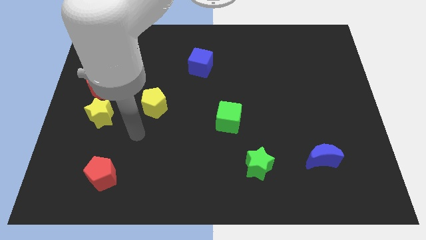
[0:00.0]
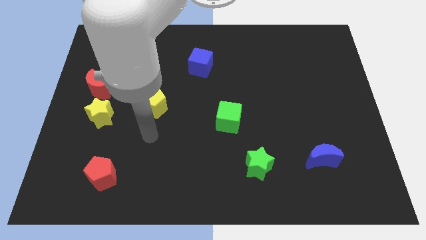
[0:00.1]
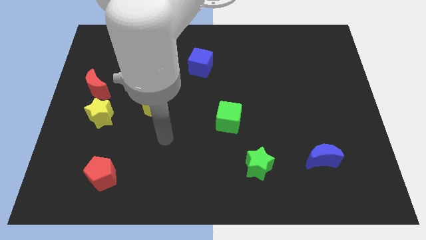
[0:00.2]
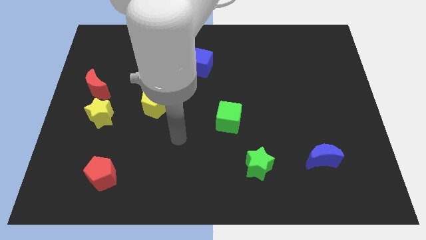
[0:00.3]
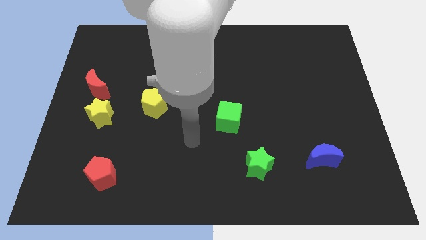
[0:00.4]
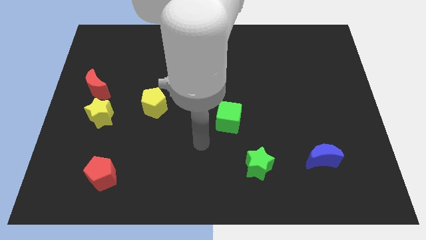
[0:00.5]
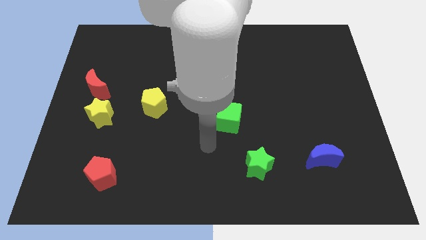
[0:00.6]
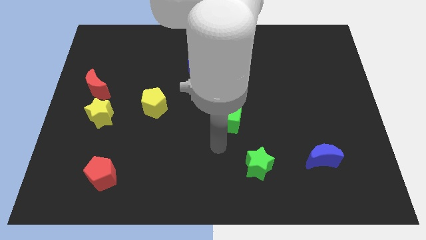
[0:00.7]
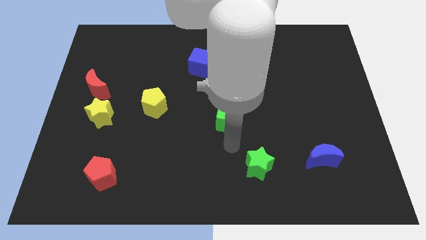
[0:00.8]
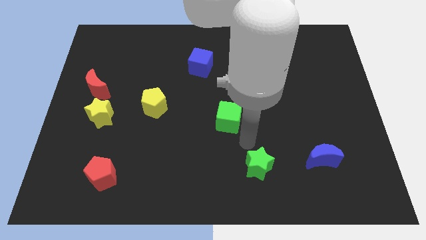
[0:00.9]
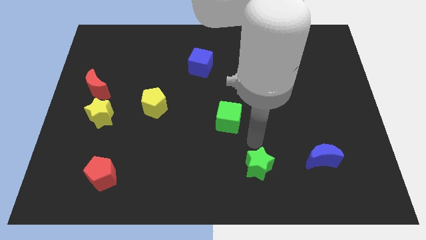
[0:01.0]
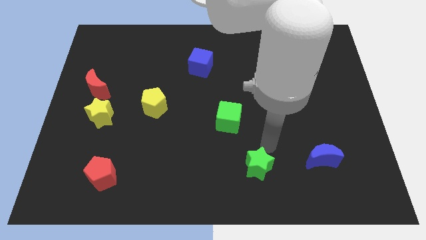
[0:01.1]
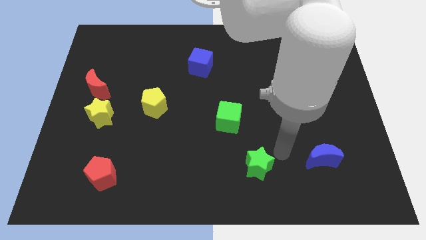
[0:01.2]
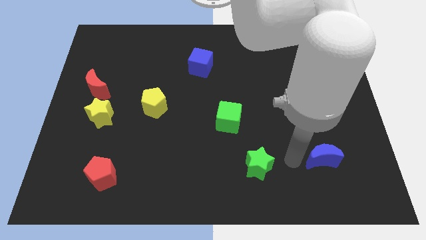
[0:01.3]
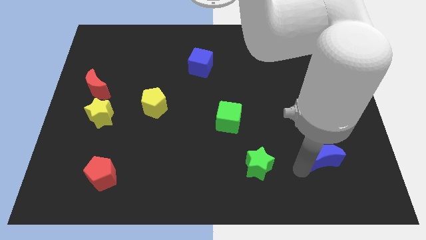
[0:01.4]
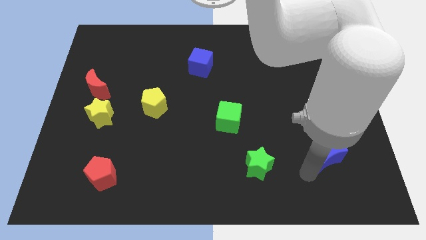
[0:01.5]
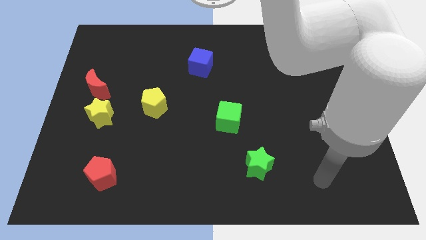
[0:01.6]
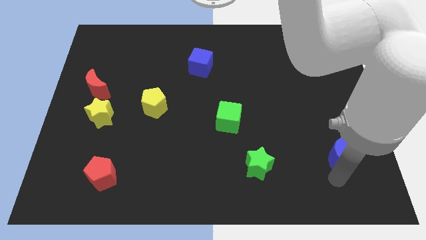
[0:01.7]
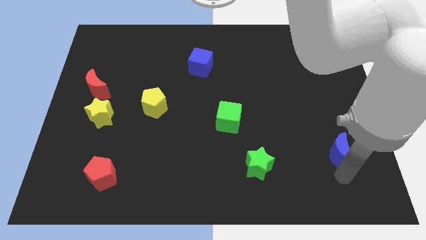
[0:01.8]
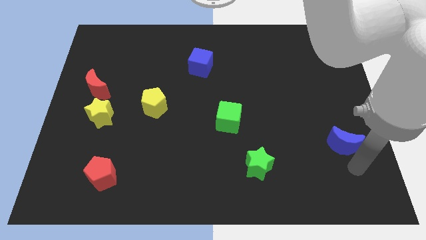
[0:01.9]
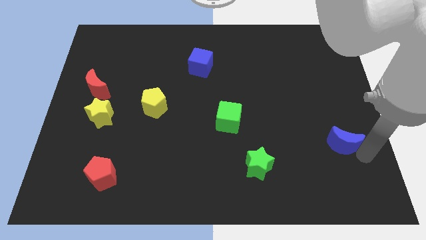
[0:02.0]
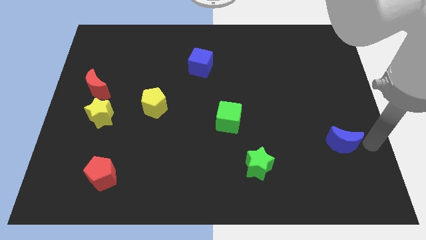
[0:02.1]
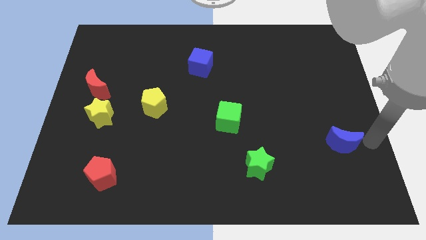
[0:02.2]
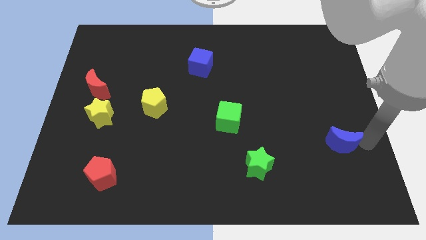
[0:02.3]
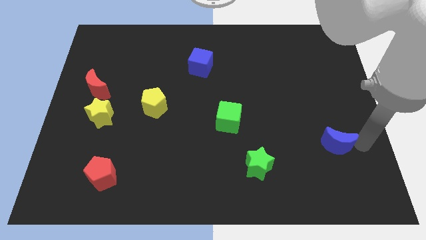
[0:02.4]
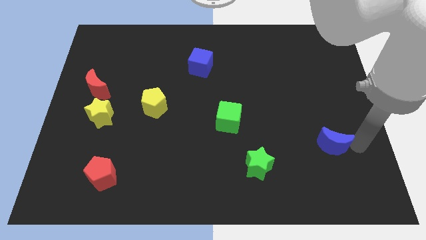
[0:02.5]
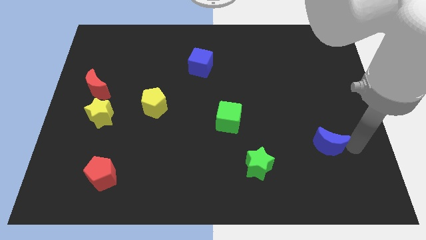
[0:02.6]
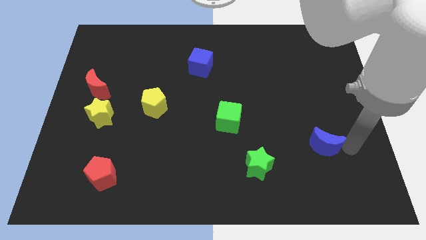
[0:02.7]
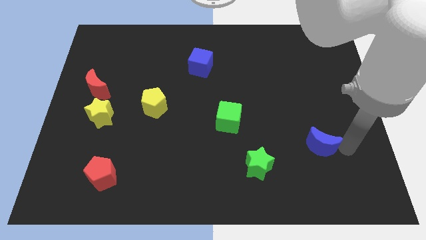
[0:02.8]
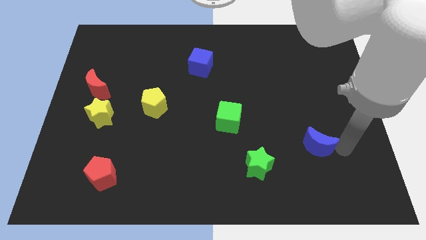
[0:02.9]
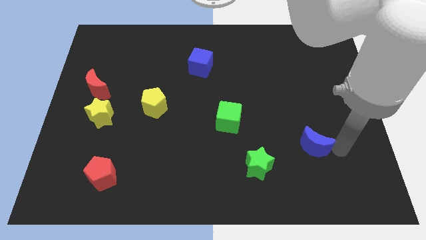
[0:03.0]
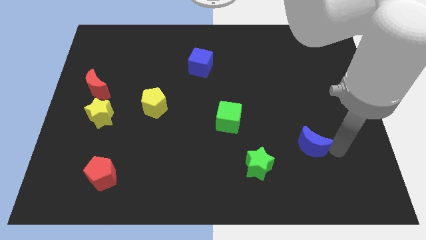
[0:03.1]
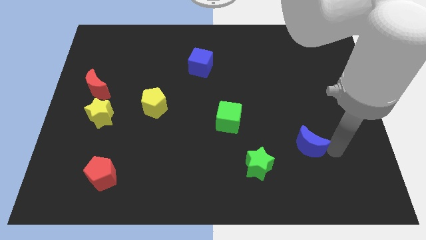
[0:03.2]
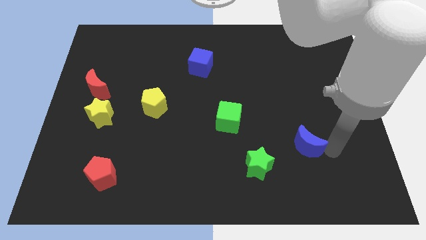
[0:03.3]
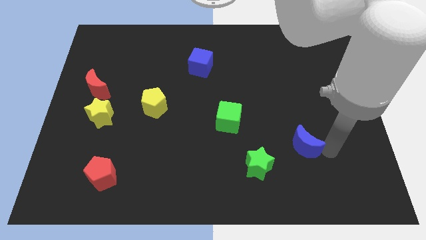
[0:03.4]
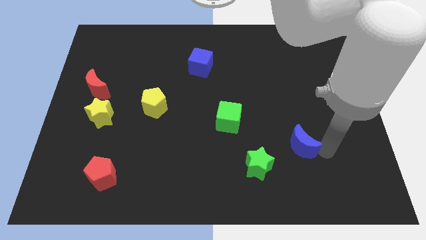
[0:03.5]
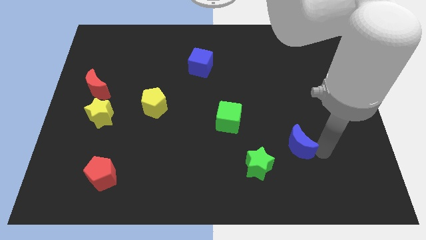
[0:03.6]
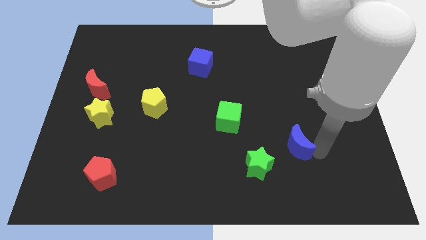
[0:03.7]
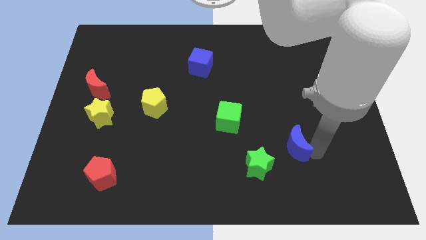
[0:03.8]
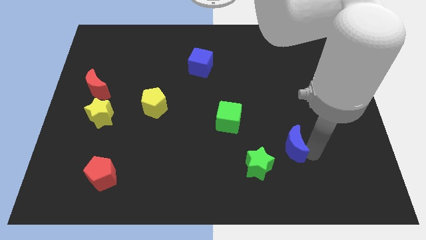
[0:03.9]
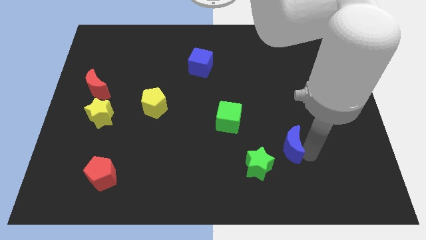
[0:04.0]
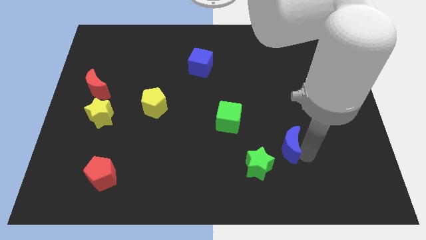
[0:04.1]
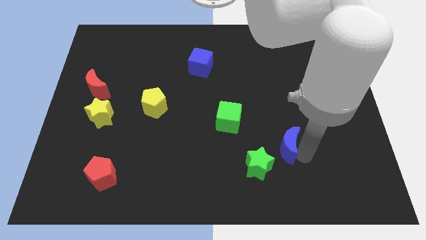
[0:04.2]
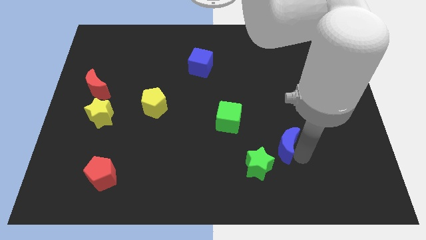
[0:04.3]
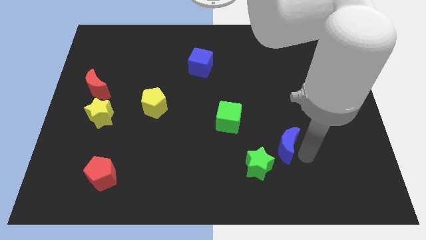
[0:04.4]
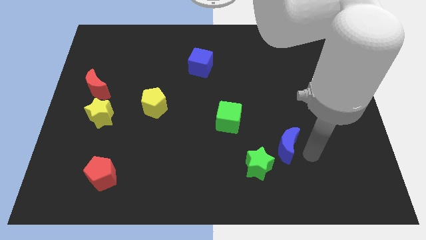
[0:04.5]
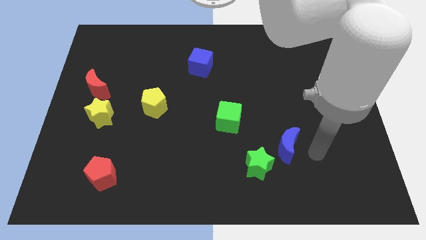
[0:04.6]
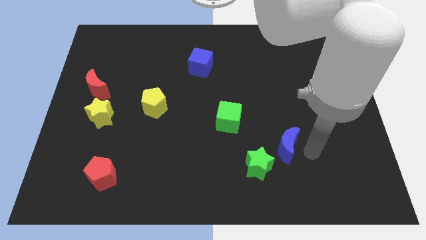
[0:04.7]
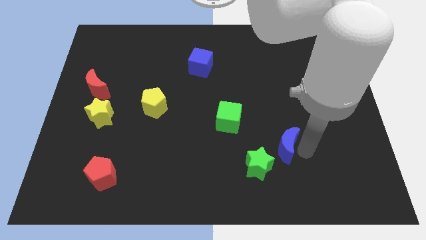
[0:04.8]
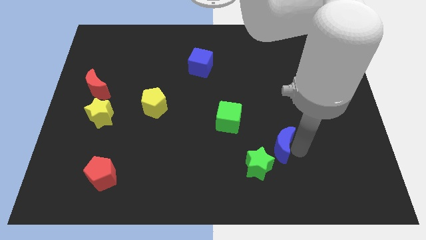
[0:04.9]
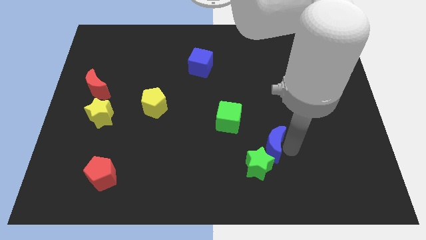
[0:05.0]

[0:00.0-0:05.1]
push the blue moon to the bottom right side of the green cube

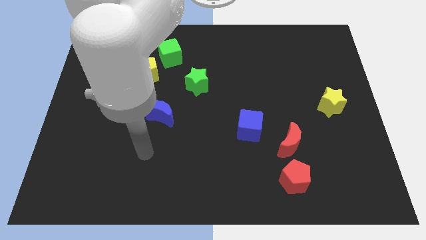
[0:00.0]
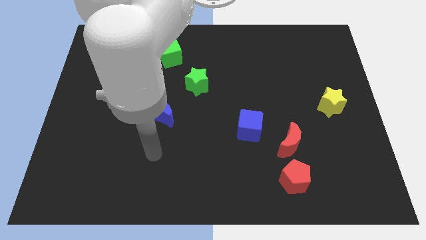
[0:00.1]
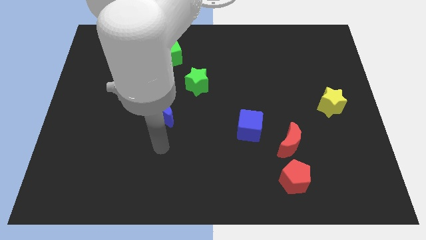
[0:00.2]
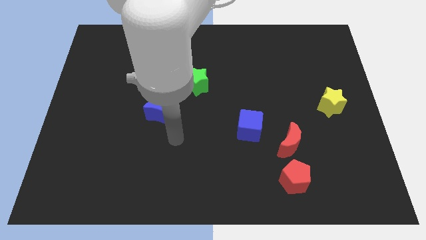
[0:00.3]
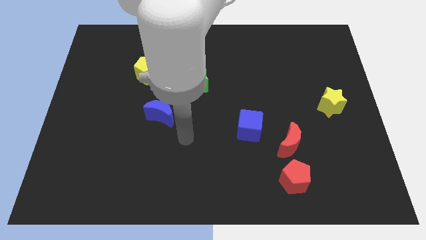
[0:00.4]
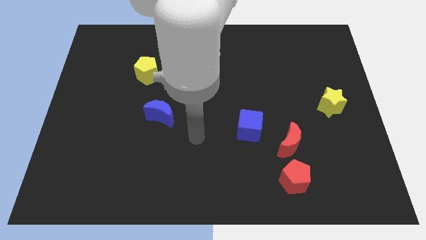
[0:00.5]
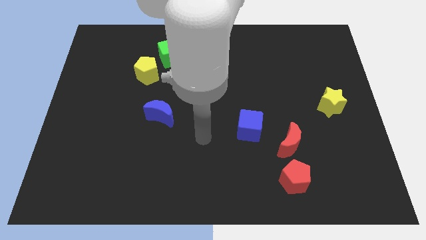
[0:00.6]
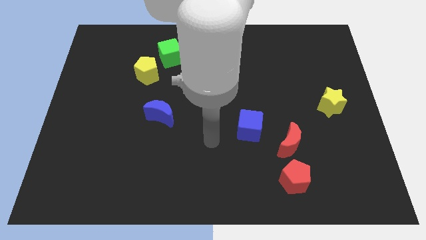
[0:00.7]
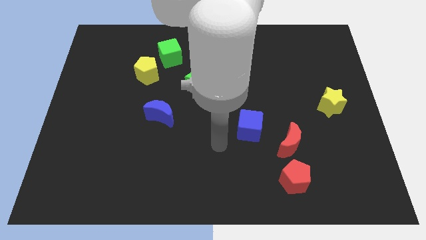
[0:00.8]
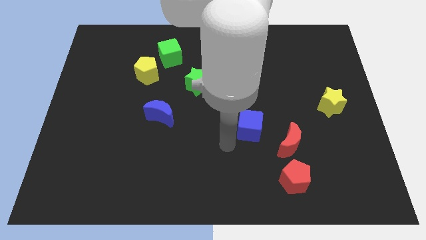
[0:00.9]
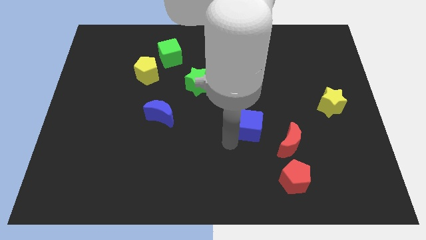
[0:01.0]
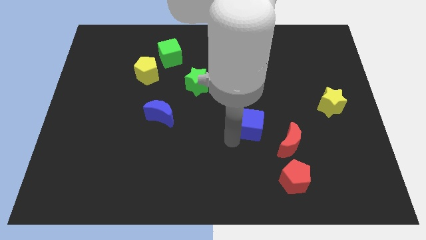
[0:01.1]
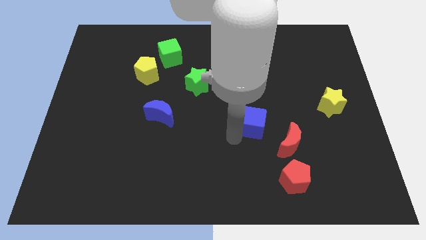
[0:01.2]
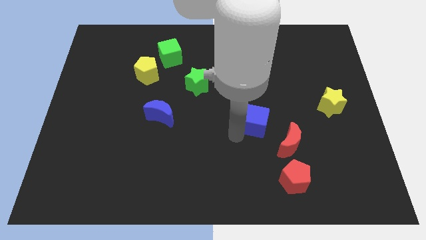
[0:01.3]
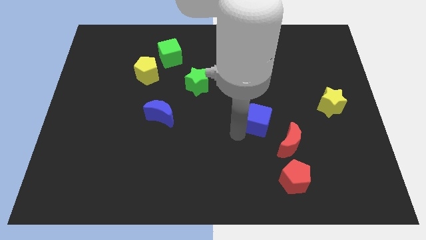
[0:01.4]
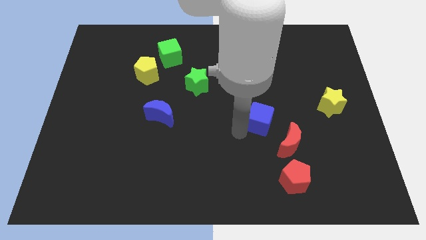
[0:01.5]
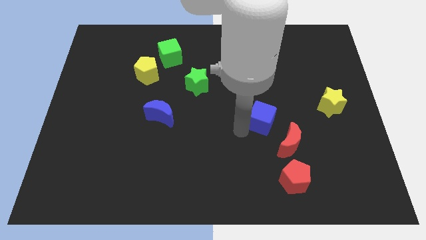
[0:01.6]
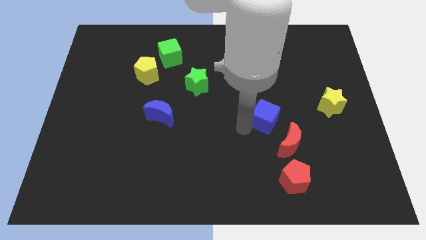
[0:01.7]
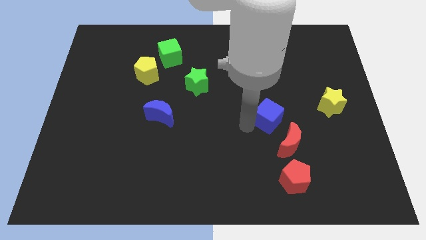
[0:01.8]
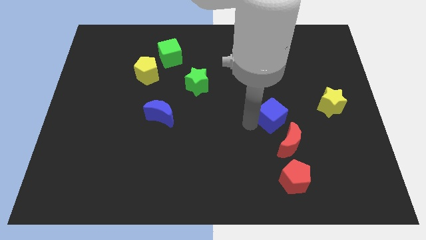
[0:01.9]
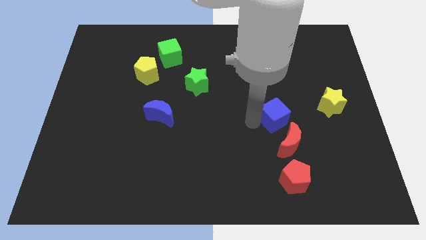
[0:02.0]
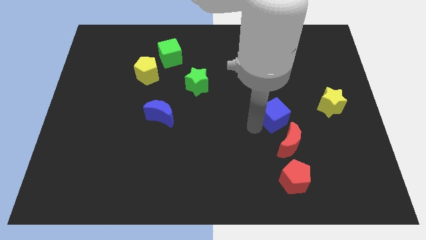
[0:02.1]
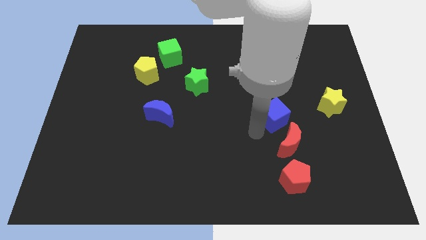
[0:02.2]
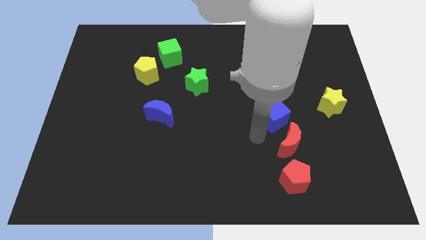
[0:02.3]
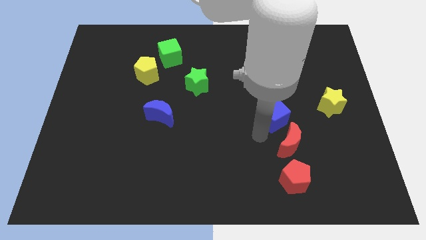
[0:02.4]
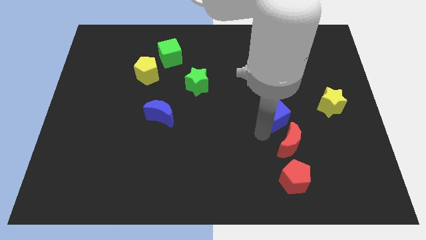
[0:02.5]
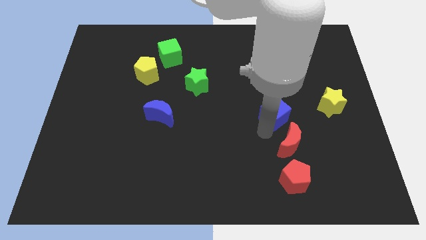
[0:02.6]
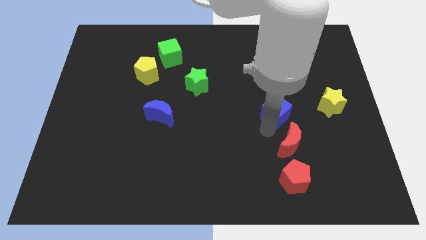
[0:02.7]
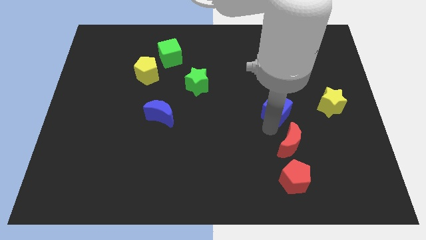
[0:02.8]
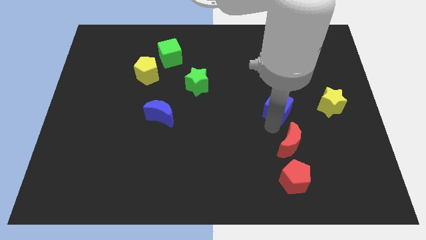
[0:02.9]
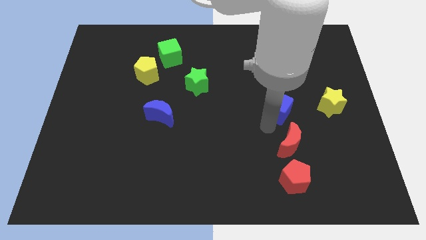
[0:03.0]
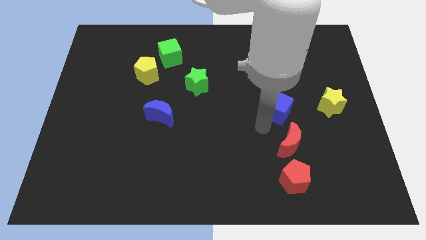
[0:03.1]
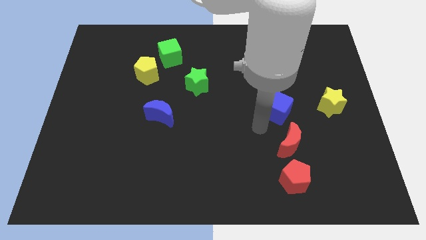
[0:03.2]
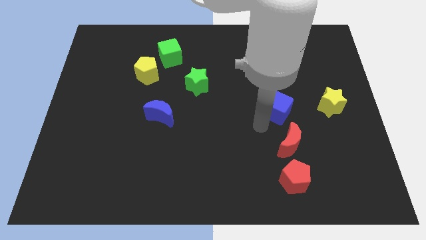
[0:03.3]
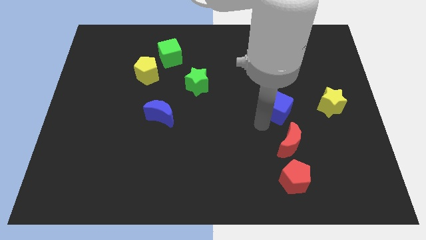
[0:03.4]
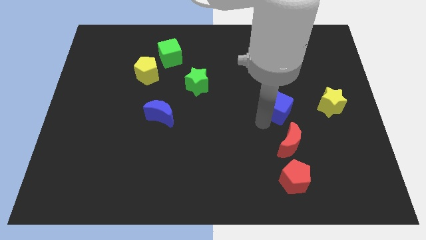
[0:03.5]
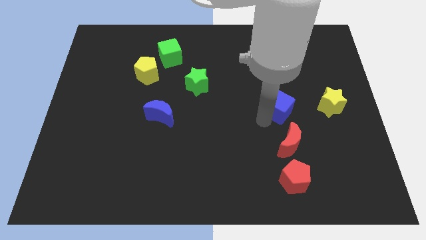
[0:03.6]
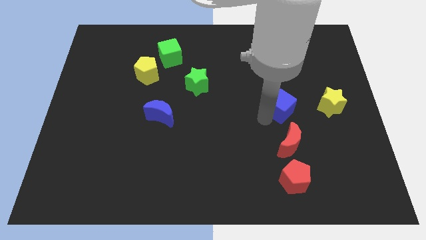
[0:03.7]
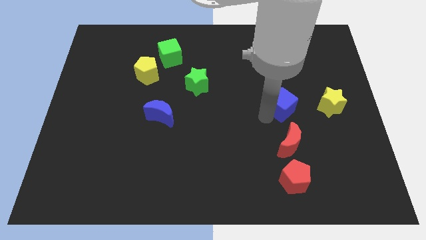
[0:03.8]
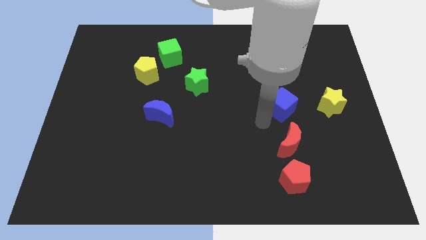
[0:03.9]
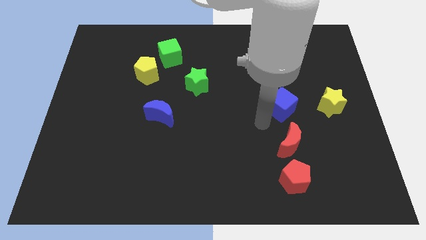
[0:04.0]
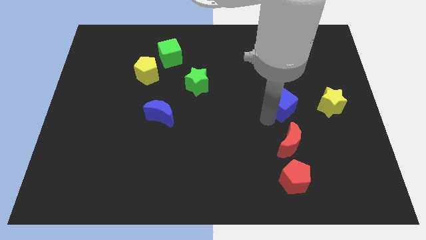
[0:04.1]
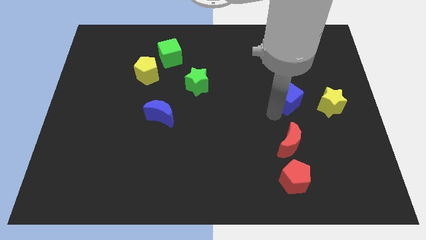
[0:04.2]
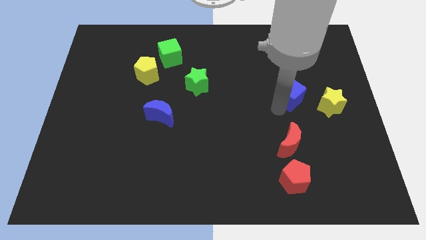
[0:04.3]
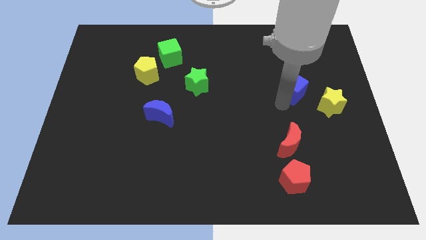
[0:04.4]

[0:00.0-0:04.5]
push the blue cube to the top left side of the yellow star
